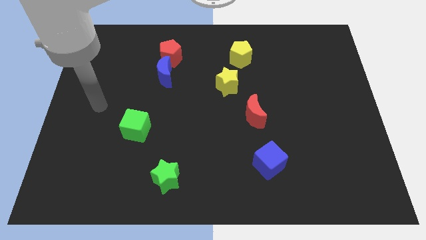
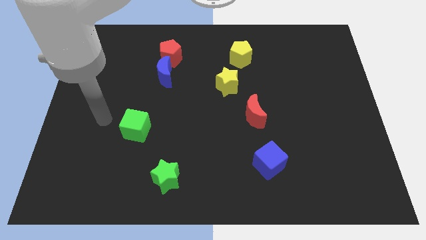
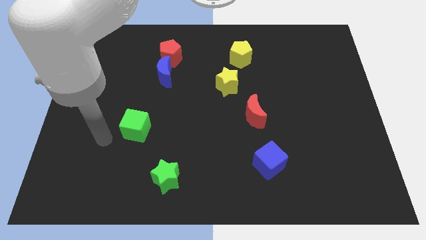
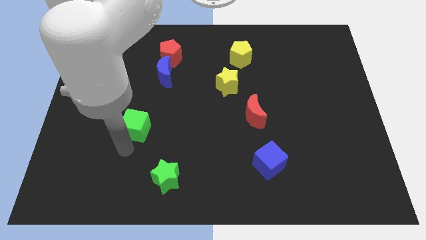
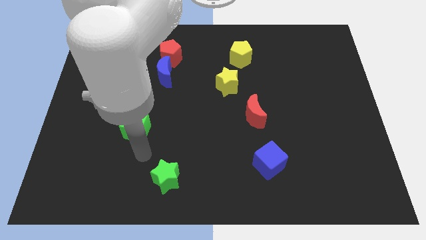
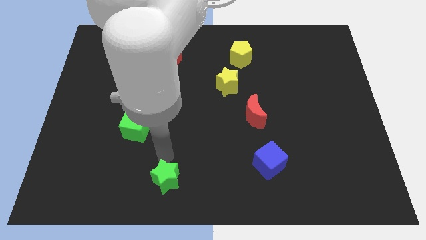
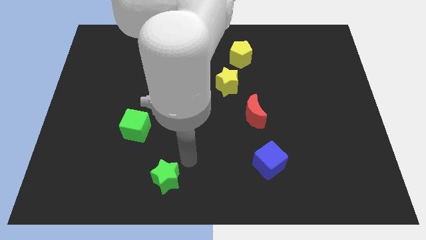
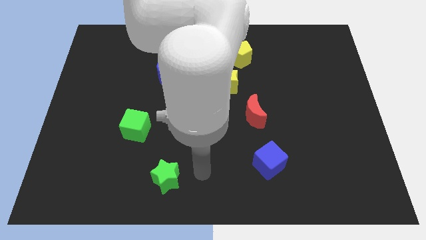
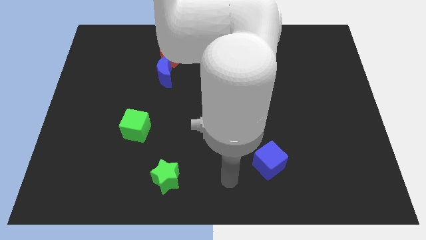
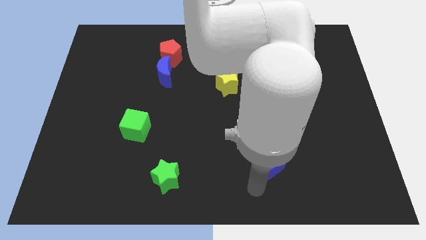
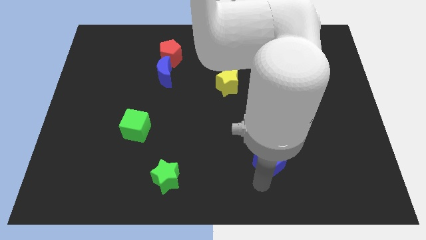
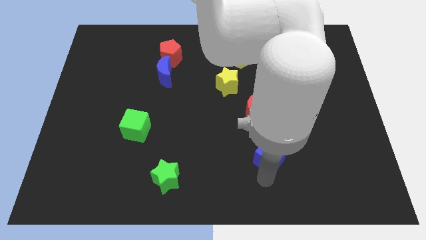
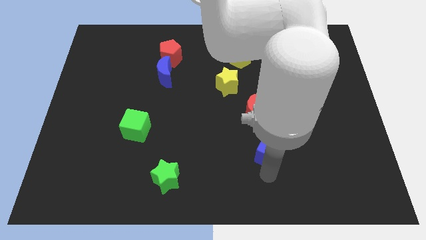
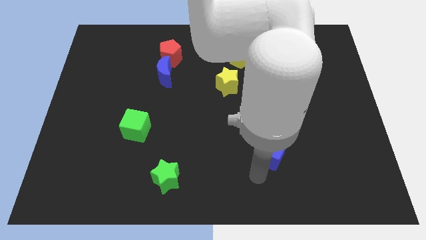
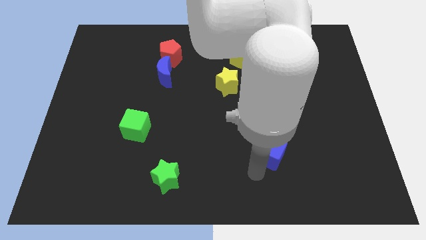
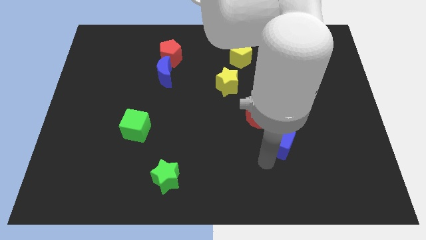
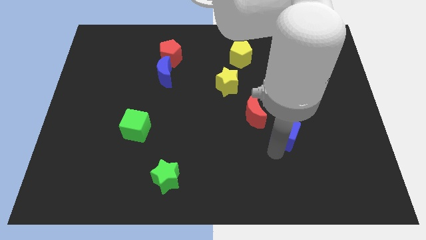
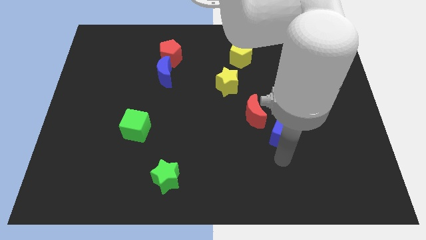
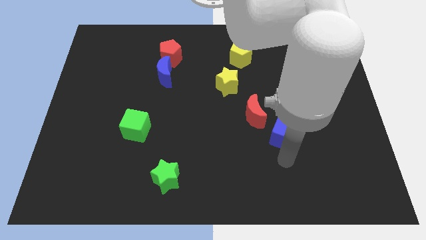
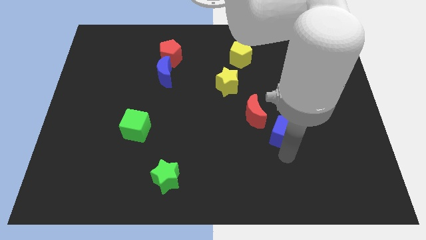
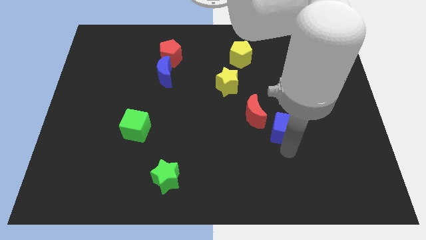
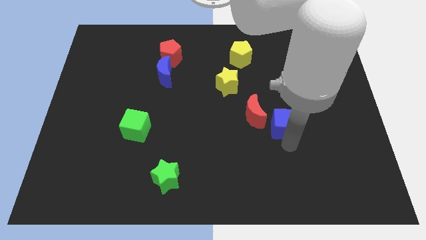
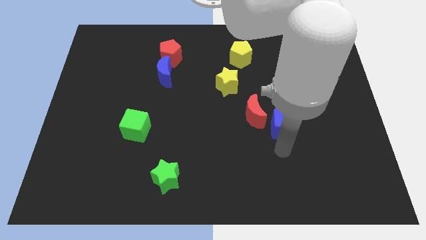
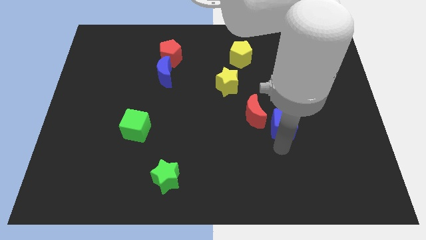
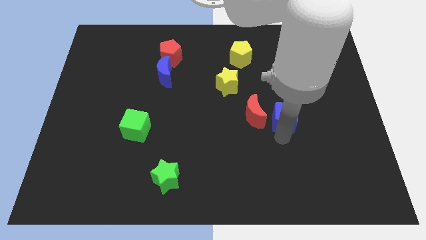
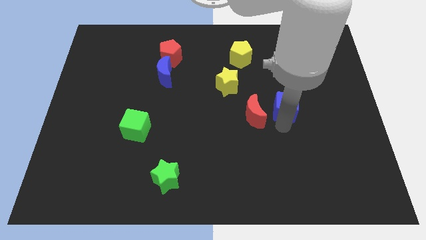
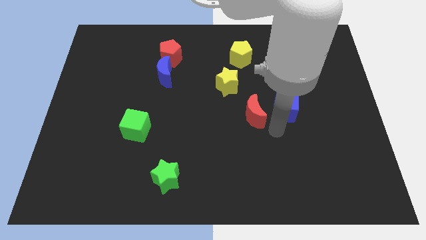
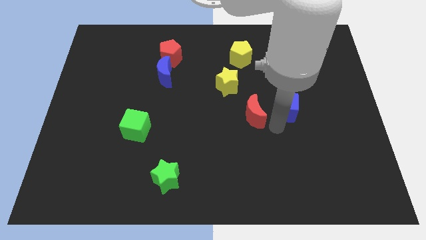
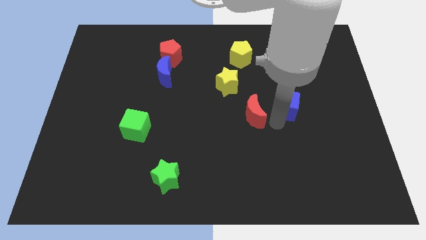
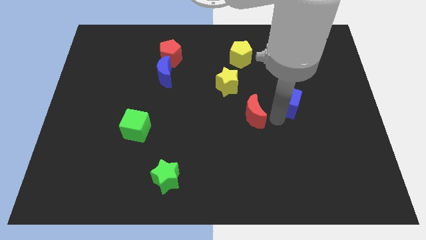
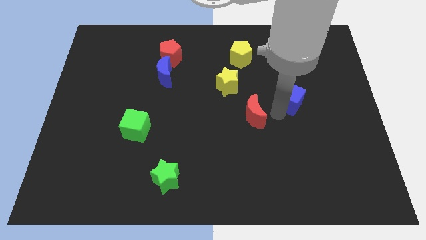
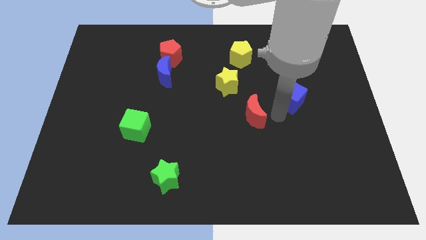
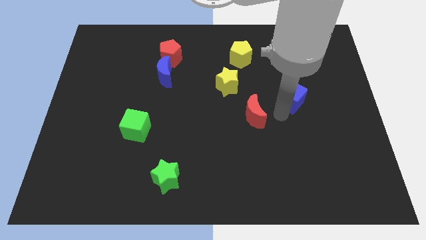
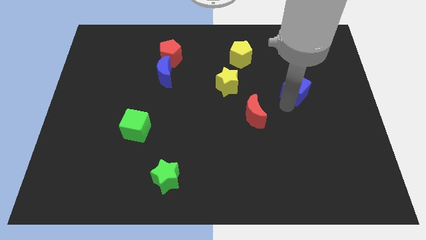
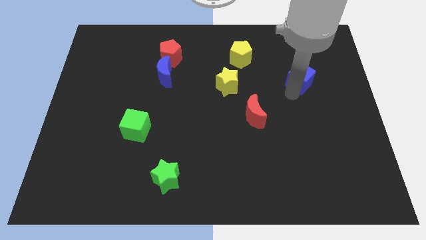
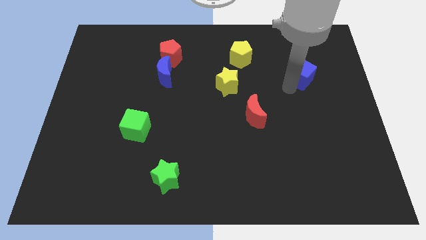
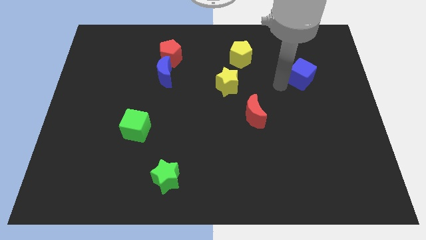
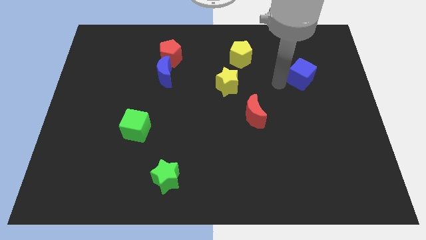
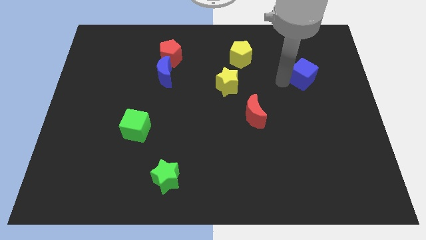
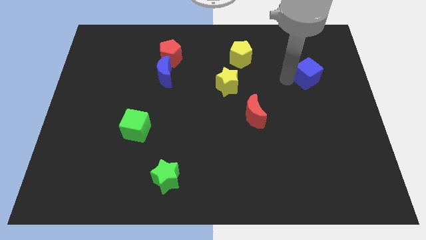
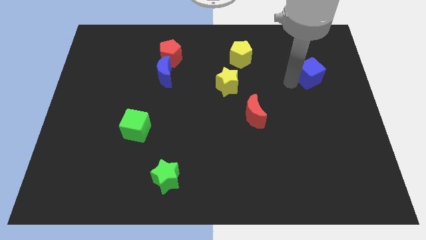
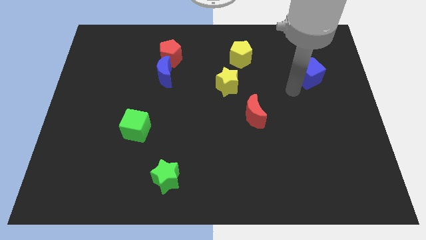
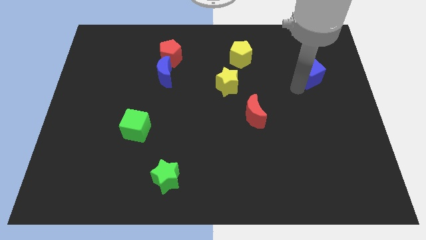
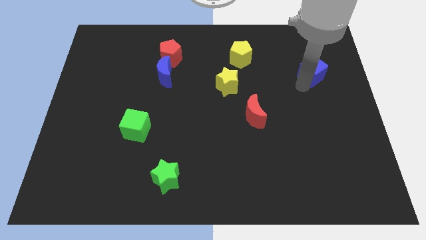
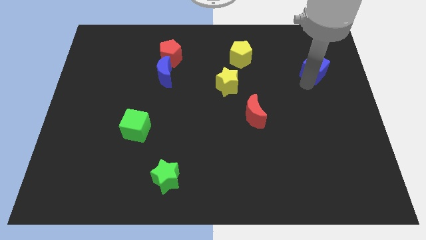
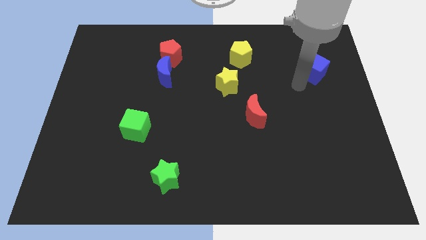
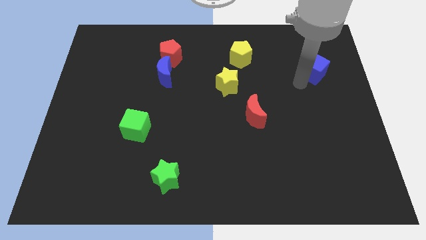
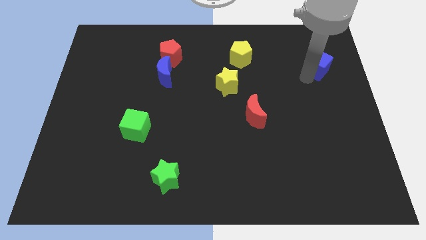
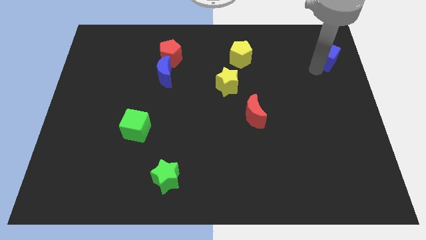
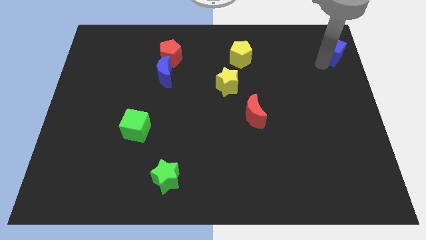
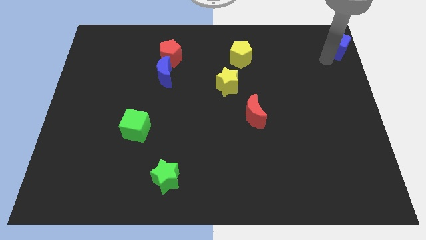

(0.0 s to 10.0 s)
put the blue cube to the top right of the board

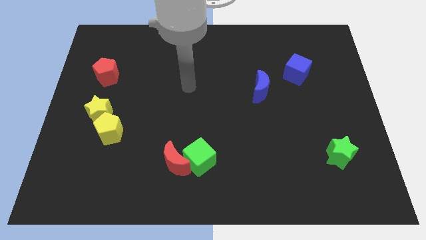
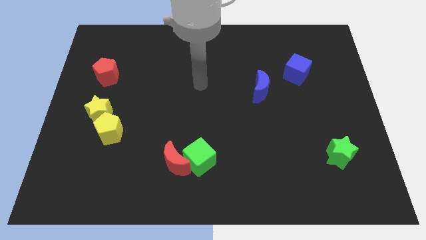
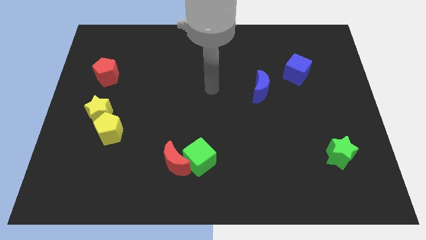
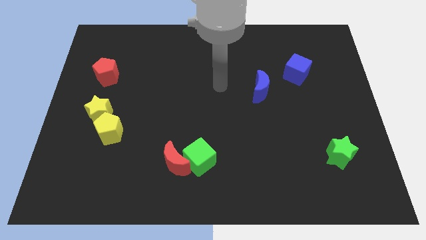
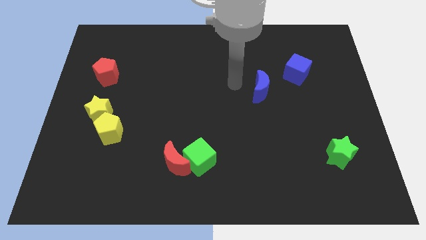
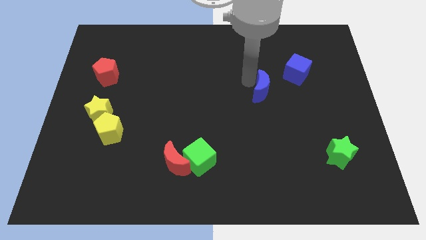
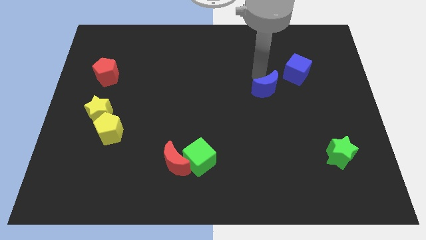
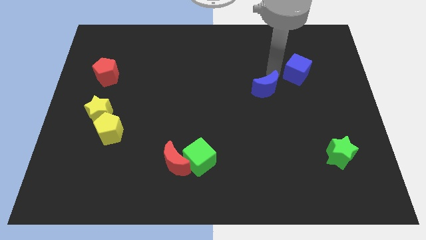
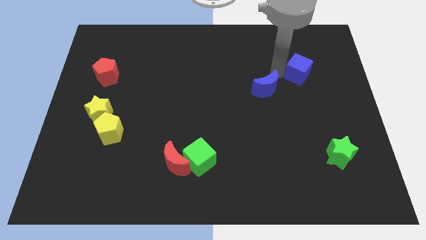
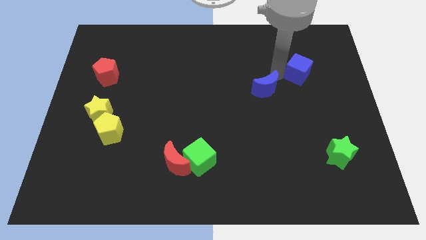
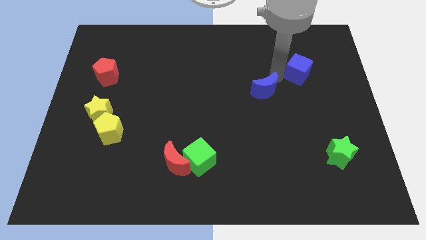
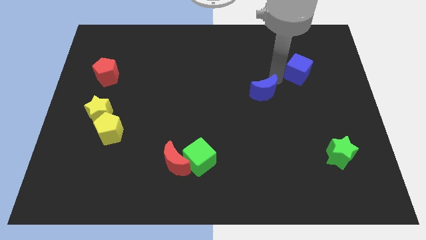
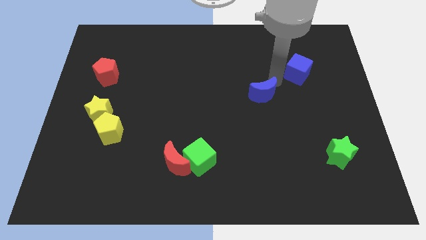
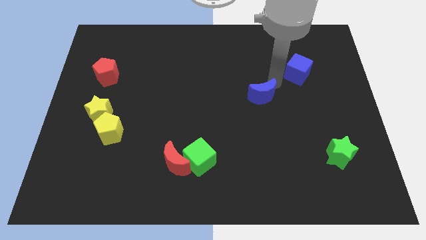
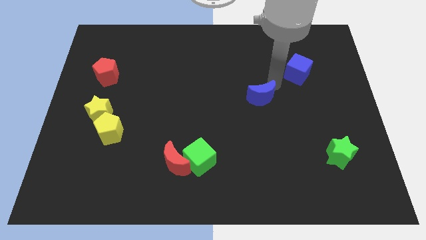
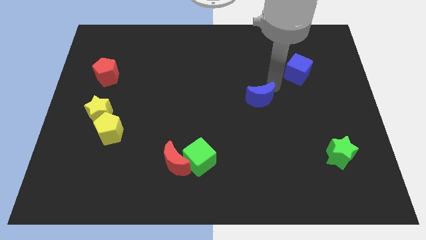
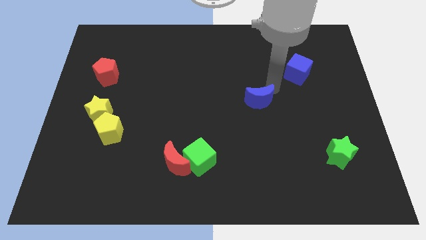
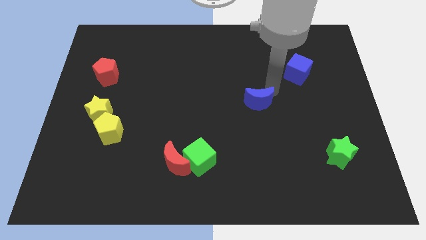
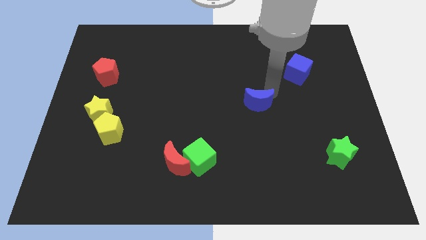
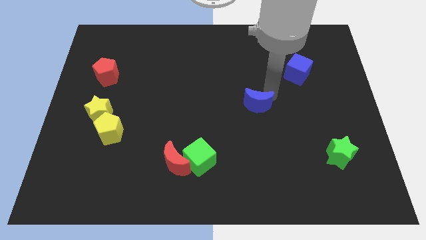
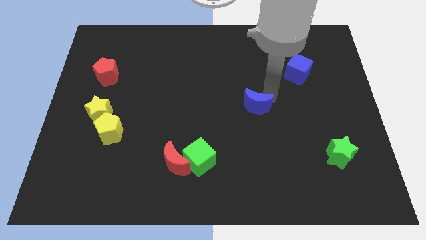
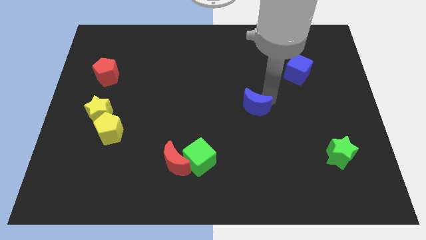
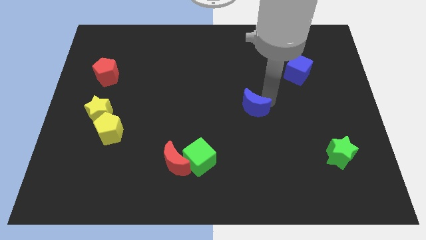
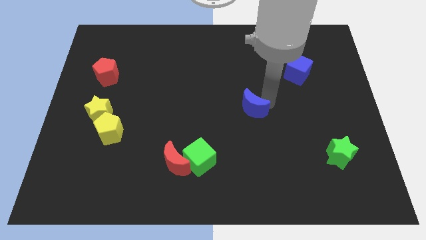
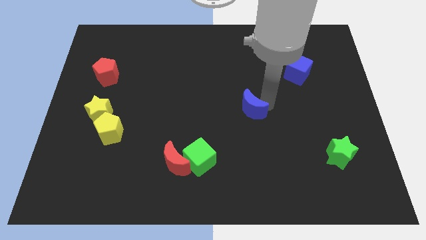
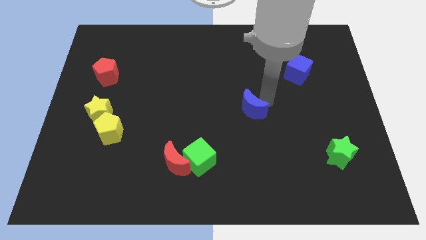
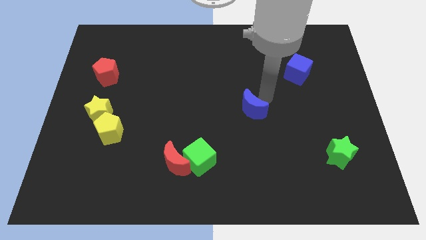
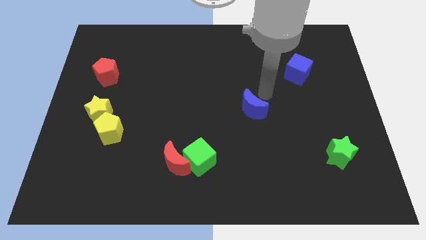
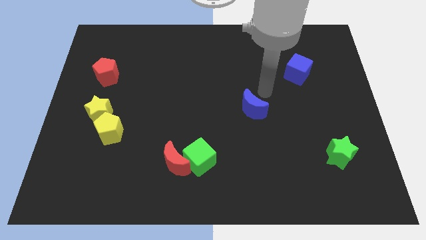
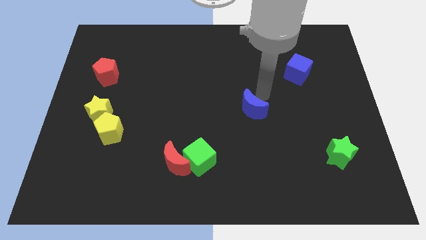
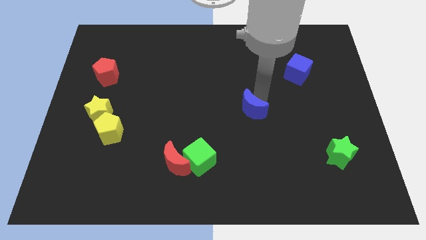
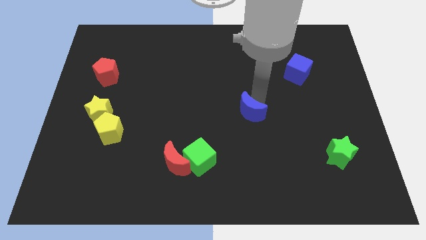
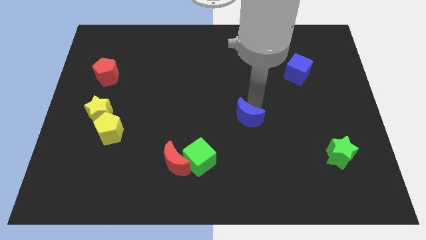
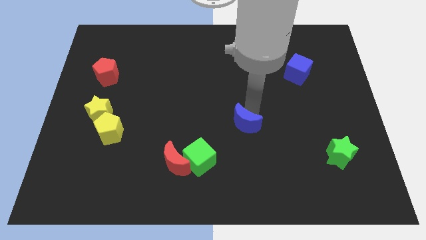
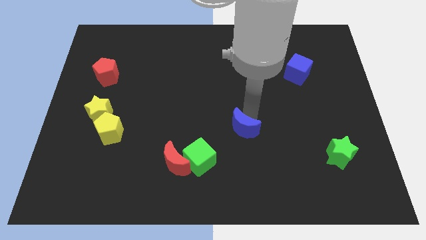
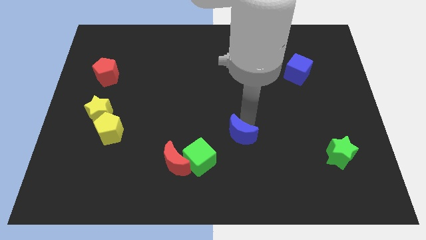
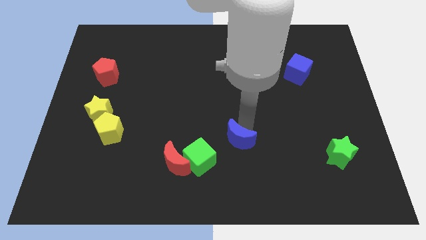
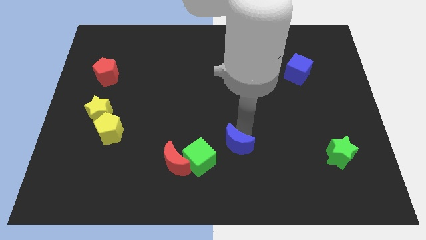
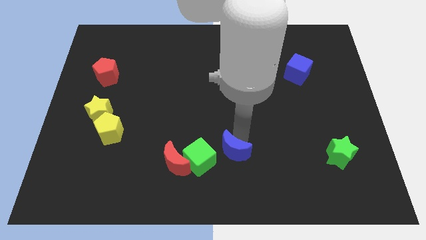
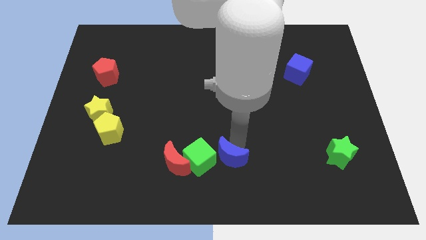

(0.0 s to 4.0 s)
push the blue moon to the bottom side
